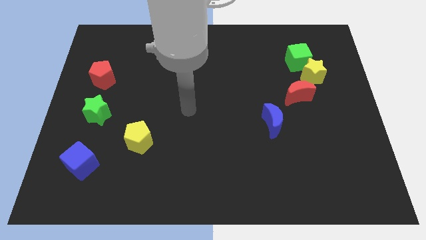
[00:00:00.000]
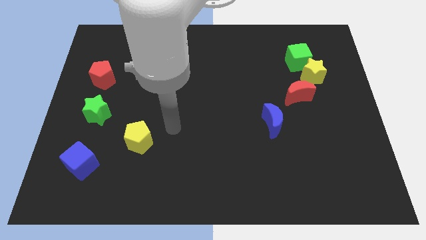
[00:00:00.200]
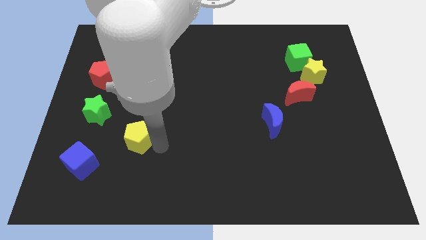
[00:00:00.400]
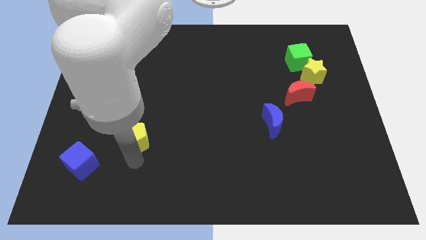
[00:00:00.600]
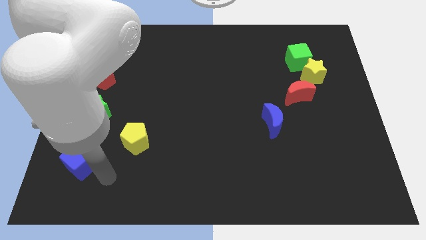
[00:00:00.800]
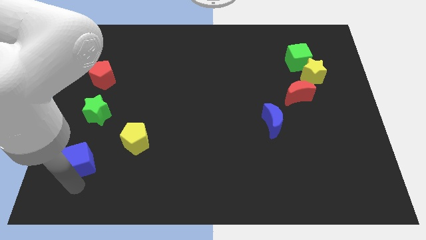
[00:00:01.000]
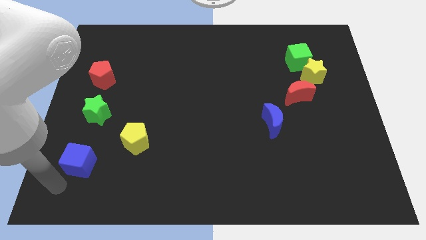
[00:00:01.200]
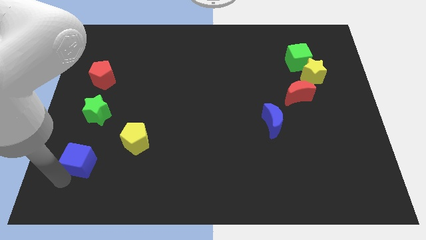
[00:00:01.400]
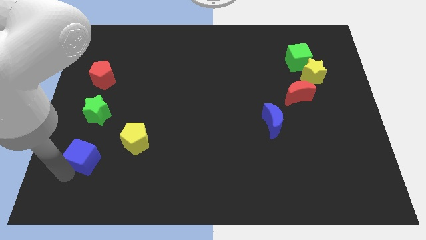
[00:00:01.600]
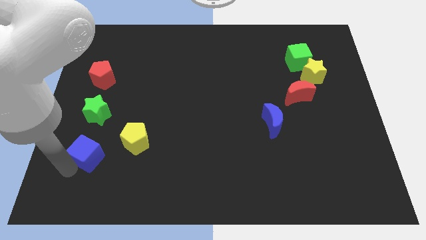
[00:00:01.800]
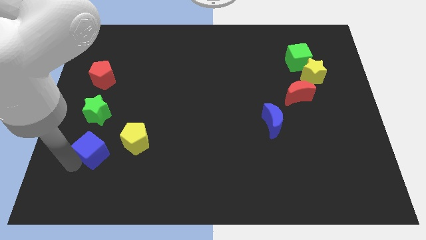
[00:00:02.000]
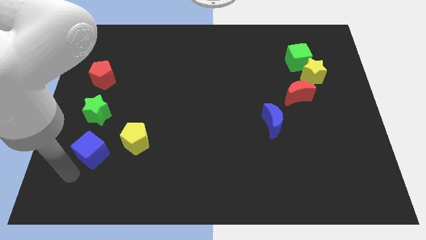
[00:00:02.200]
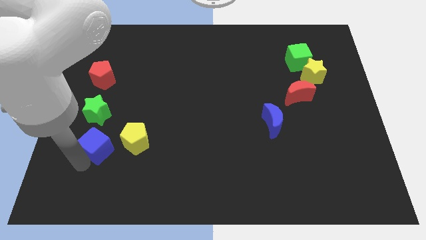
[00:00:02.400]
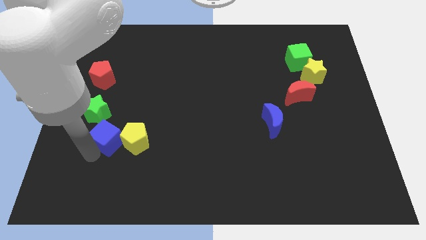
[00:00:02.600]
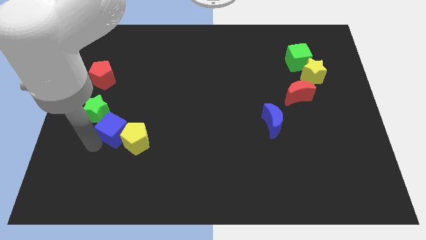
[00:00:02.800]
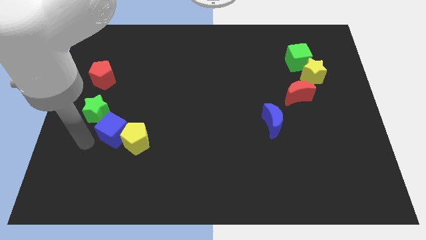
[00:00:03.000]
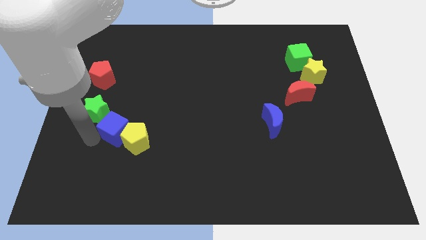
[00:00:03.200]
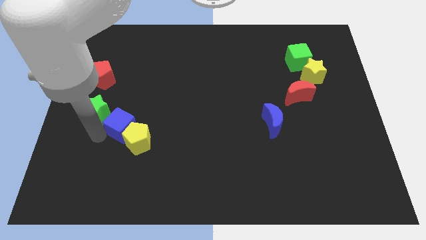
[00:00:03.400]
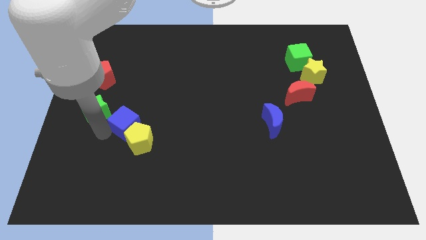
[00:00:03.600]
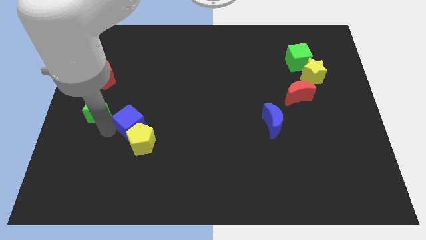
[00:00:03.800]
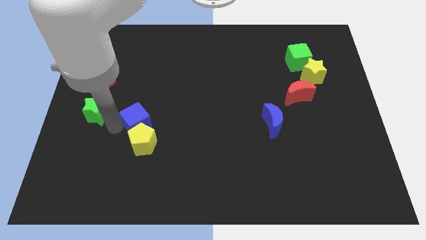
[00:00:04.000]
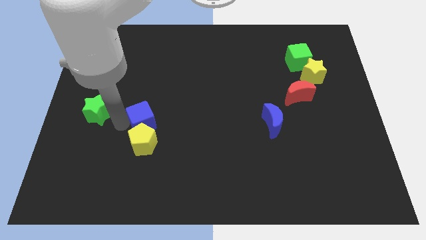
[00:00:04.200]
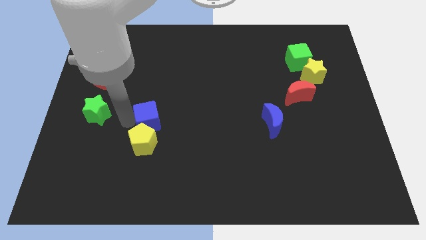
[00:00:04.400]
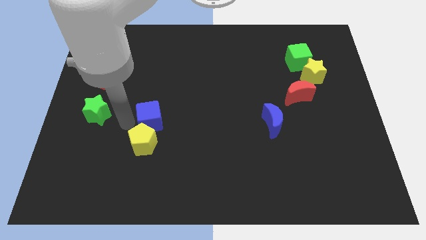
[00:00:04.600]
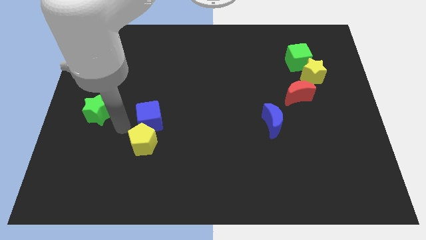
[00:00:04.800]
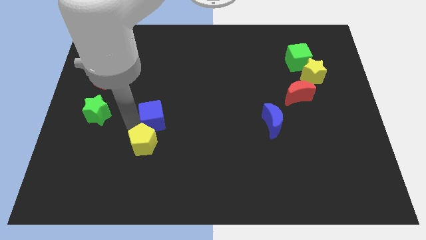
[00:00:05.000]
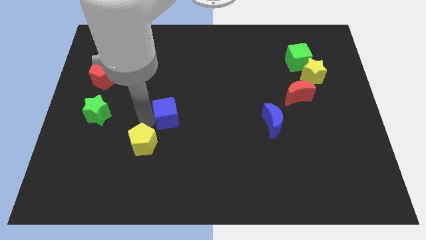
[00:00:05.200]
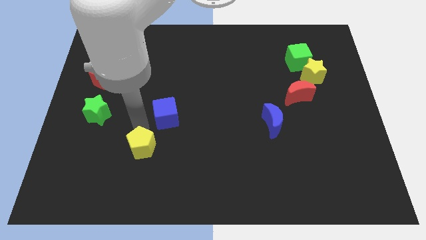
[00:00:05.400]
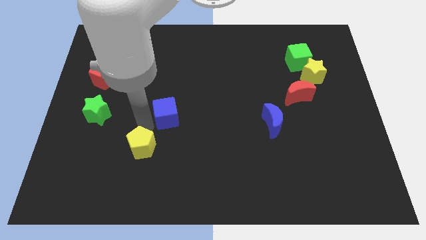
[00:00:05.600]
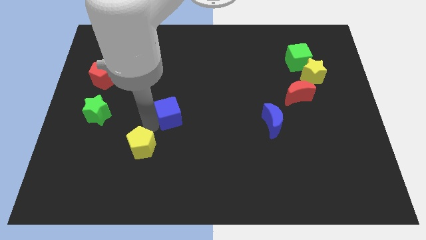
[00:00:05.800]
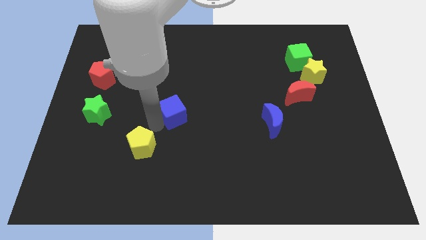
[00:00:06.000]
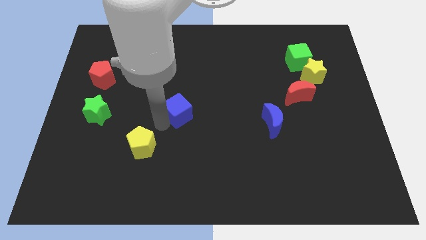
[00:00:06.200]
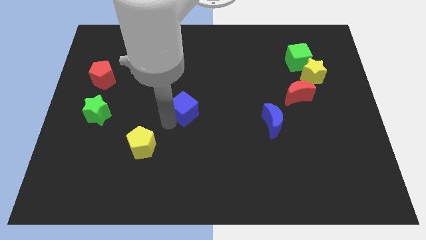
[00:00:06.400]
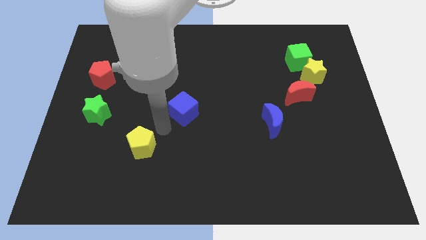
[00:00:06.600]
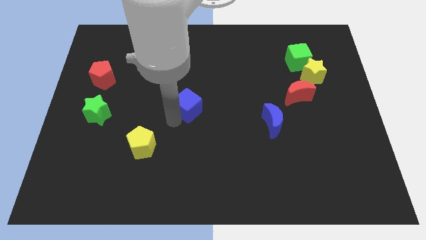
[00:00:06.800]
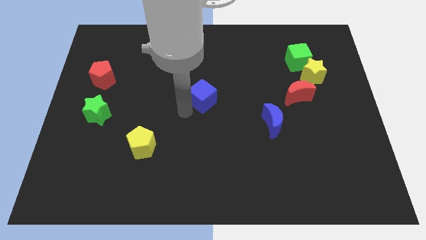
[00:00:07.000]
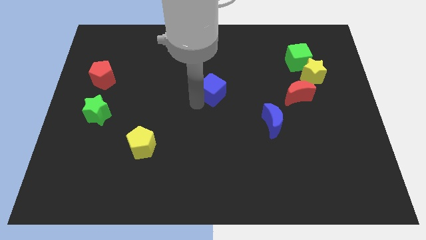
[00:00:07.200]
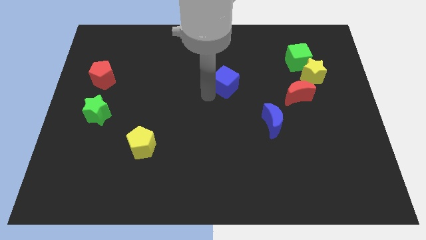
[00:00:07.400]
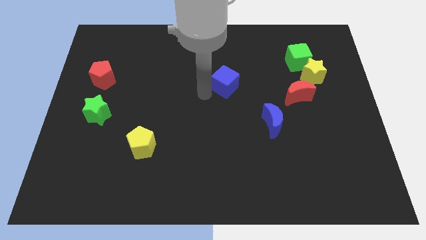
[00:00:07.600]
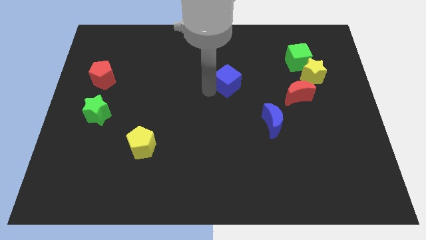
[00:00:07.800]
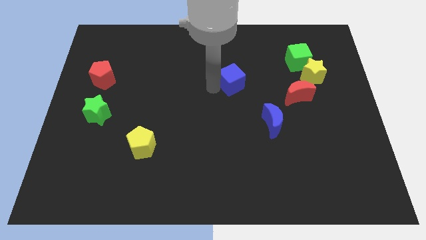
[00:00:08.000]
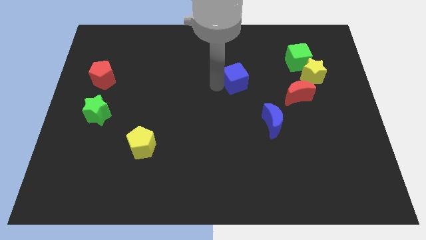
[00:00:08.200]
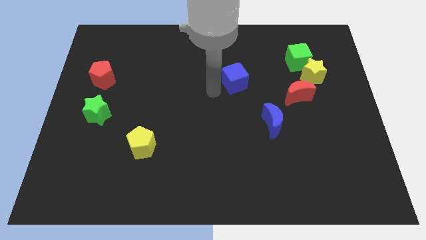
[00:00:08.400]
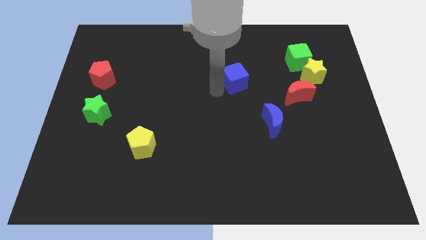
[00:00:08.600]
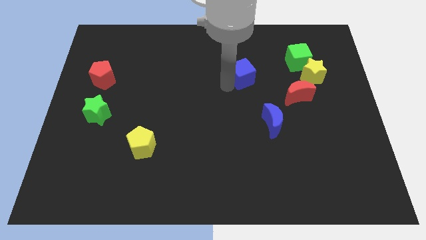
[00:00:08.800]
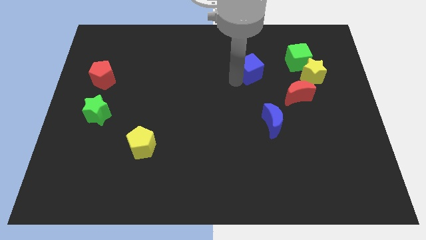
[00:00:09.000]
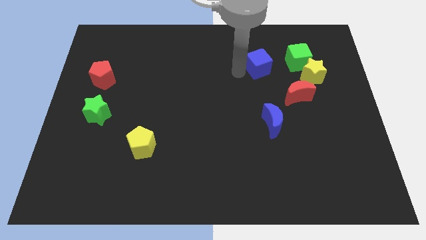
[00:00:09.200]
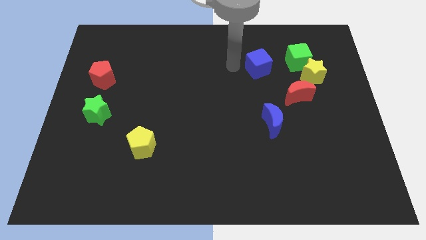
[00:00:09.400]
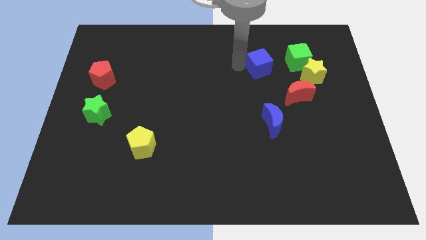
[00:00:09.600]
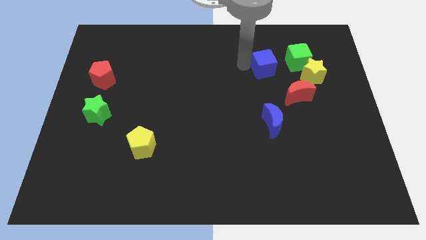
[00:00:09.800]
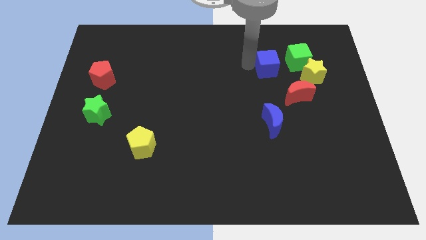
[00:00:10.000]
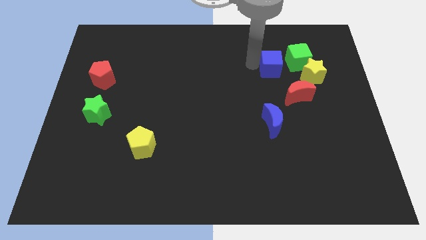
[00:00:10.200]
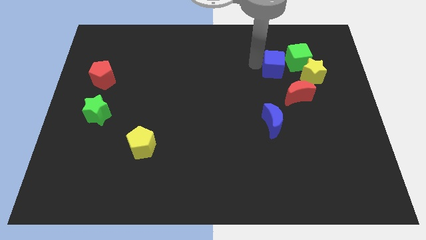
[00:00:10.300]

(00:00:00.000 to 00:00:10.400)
push the blue cube diagonally up and to the left of the yellow star

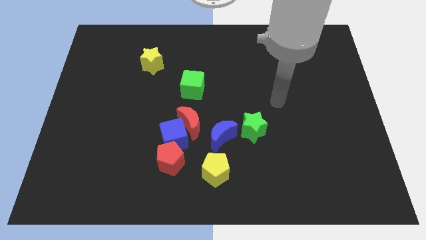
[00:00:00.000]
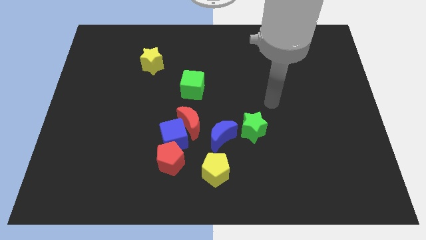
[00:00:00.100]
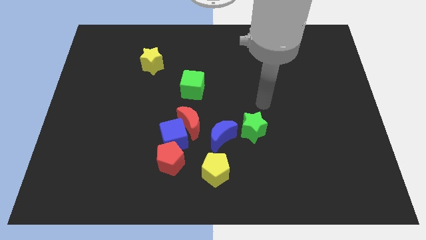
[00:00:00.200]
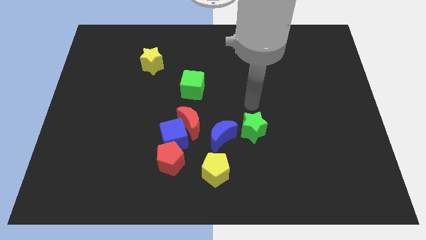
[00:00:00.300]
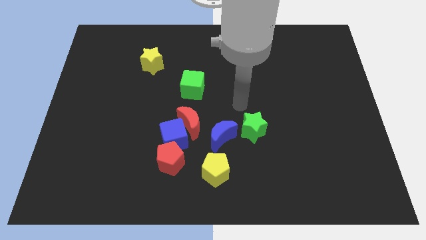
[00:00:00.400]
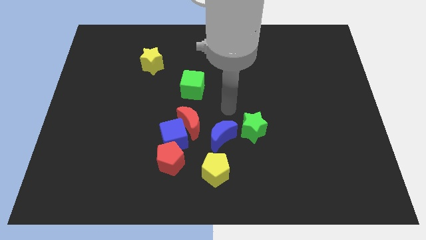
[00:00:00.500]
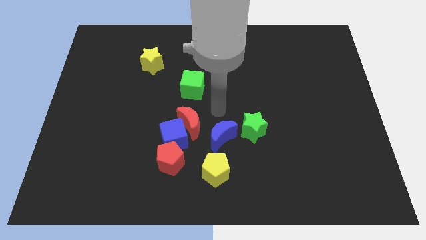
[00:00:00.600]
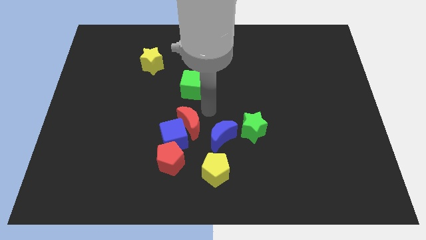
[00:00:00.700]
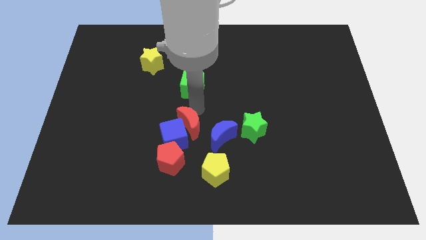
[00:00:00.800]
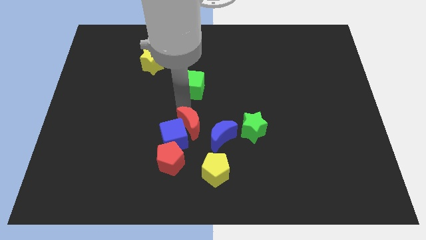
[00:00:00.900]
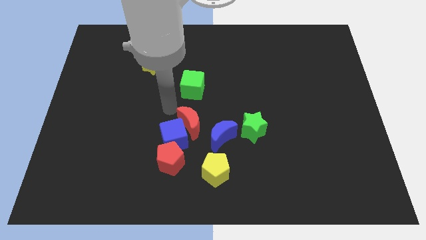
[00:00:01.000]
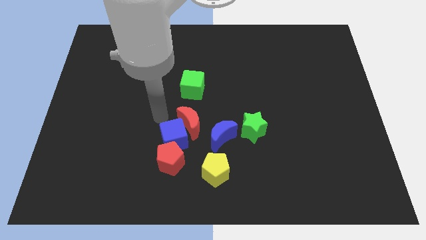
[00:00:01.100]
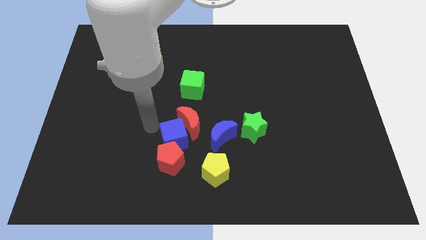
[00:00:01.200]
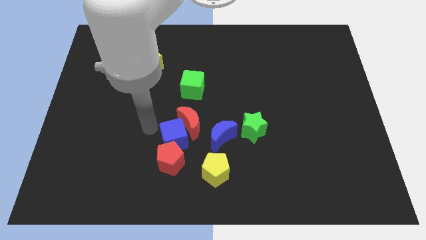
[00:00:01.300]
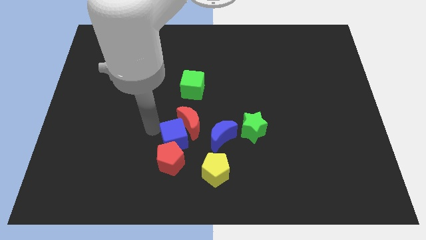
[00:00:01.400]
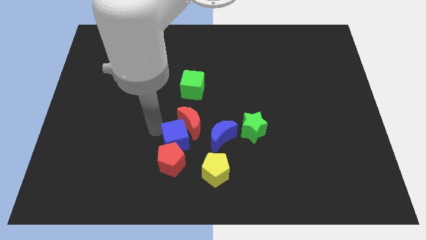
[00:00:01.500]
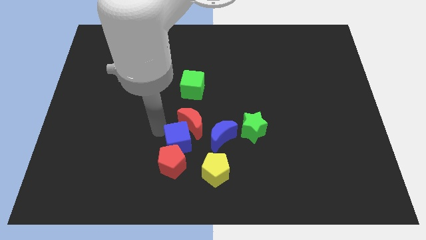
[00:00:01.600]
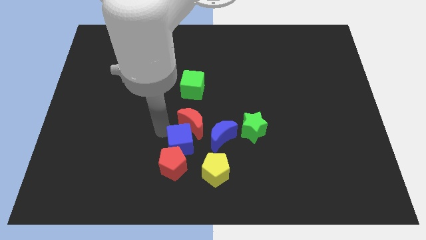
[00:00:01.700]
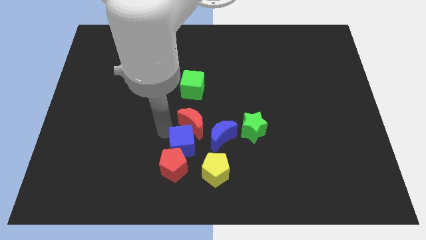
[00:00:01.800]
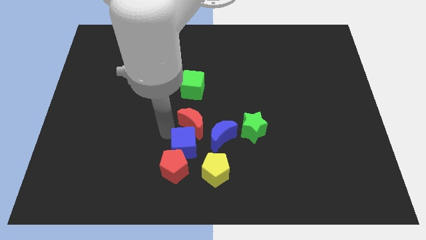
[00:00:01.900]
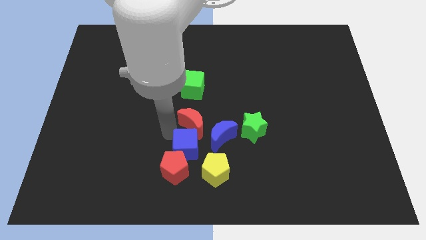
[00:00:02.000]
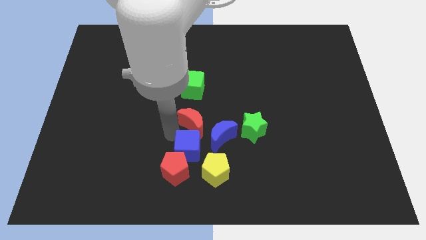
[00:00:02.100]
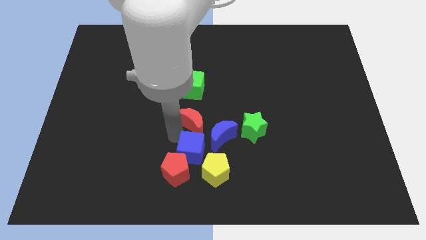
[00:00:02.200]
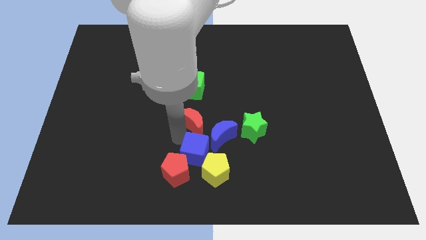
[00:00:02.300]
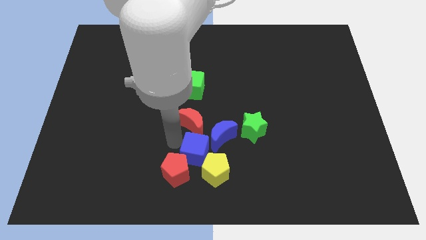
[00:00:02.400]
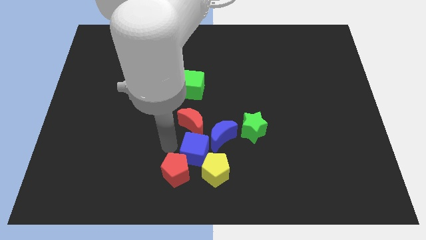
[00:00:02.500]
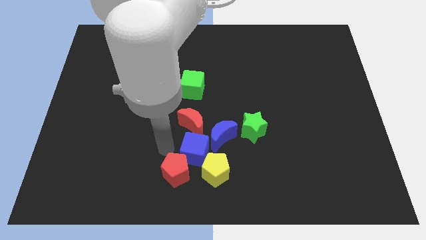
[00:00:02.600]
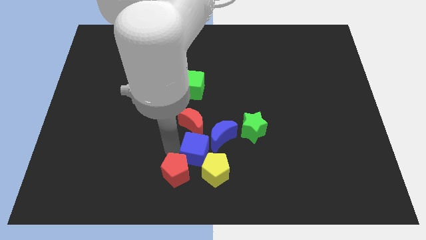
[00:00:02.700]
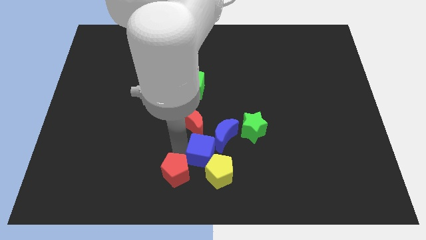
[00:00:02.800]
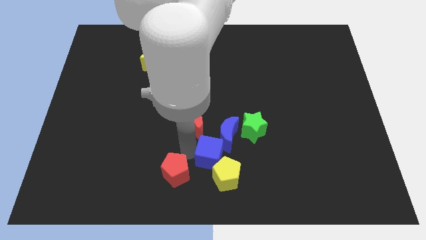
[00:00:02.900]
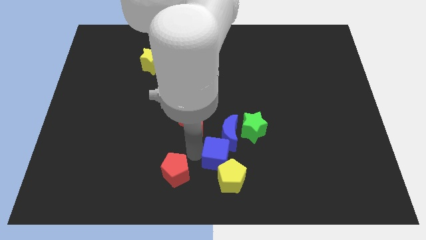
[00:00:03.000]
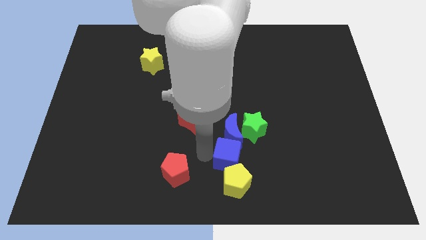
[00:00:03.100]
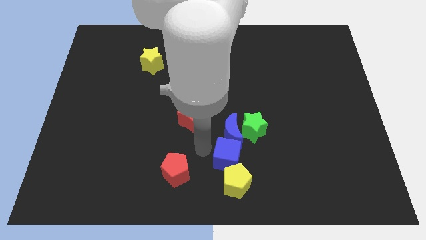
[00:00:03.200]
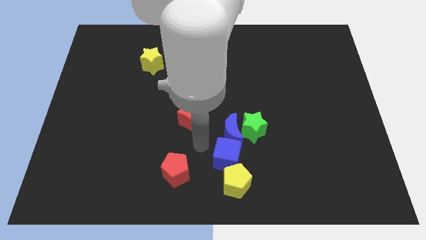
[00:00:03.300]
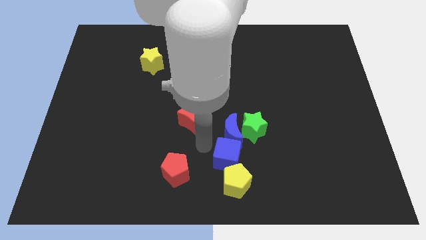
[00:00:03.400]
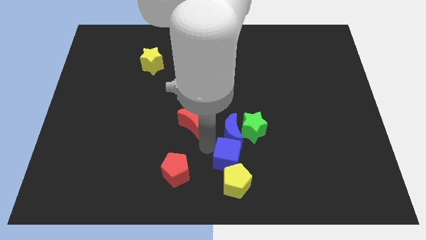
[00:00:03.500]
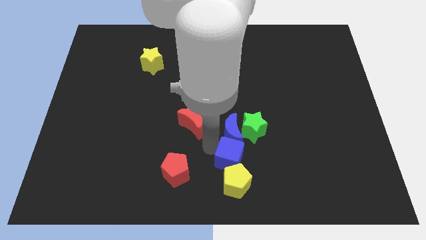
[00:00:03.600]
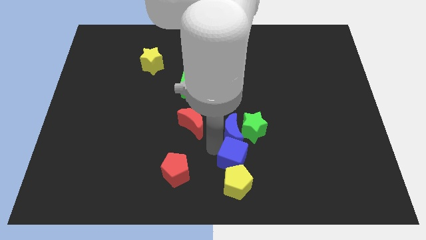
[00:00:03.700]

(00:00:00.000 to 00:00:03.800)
push the blue cube to the bottom side of the green star
